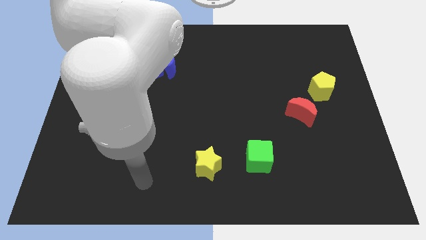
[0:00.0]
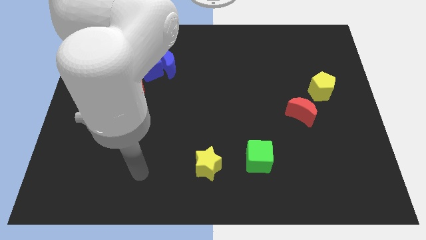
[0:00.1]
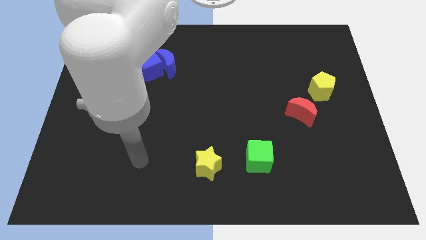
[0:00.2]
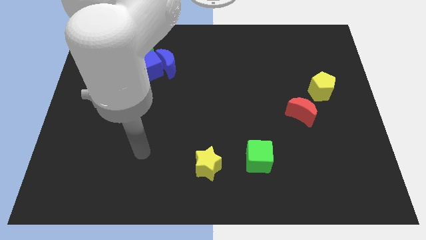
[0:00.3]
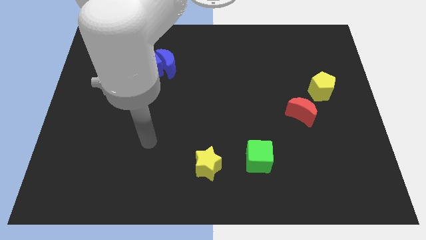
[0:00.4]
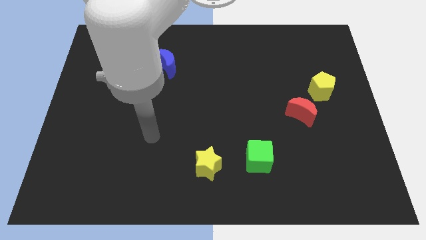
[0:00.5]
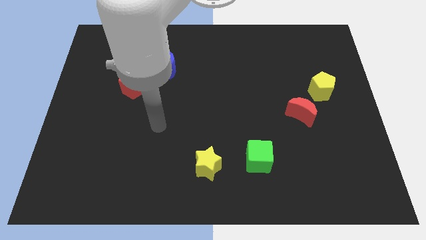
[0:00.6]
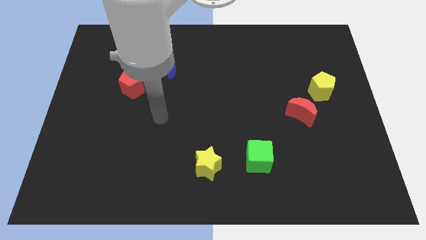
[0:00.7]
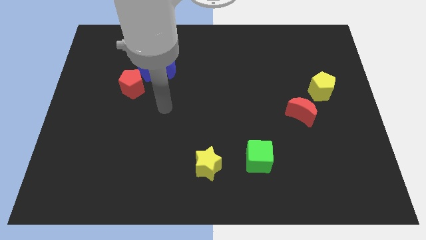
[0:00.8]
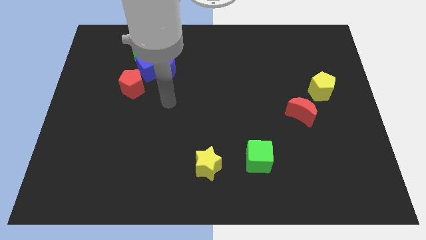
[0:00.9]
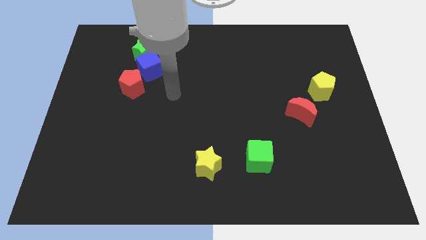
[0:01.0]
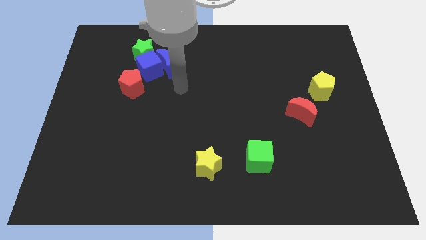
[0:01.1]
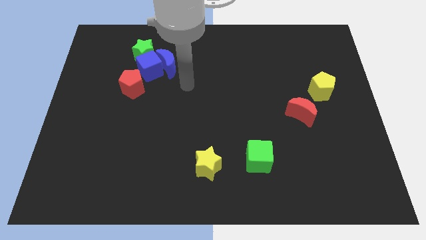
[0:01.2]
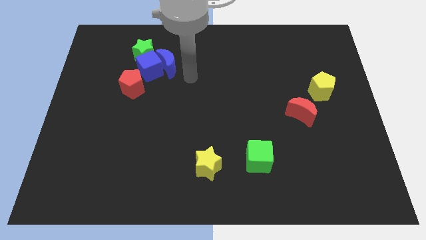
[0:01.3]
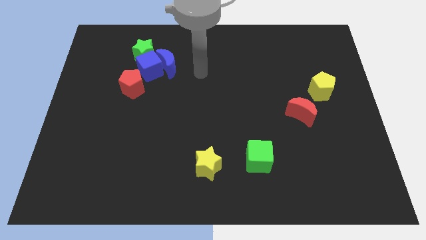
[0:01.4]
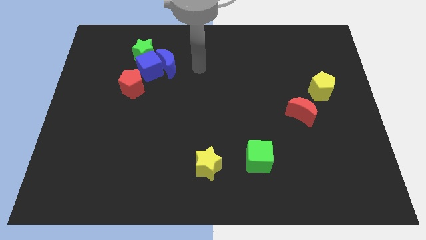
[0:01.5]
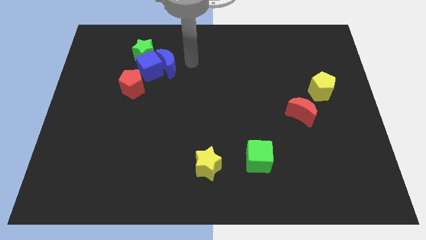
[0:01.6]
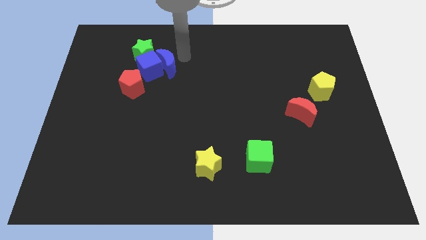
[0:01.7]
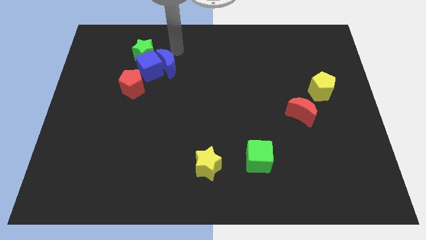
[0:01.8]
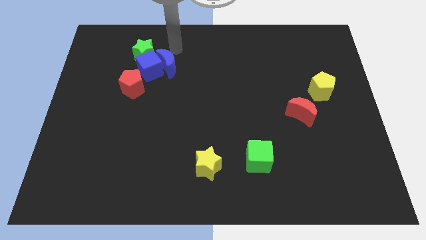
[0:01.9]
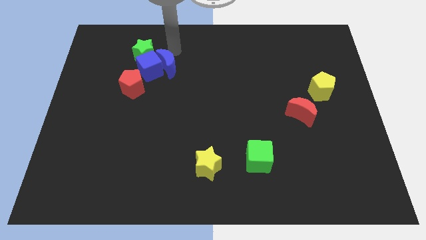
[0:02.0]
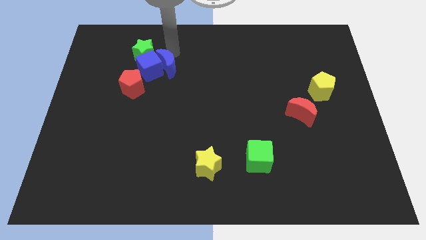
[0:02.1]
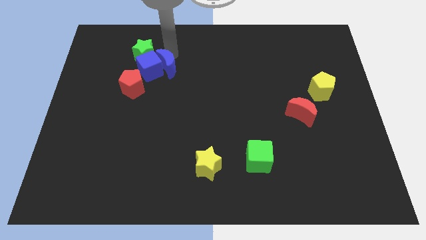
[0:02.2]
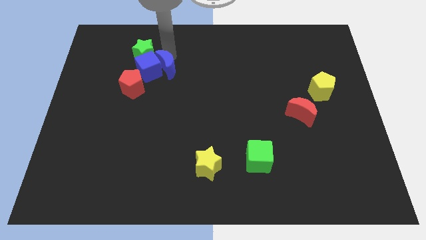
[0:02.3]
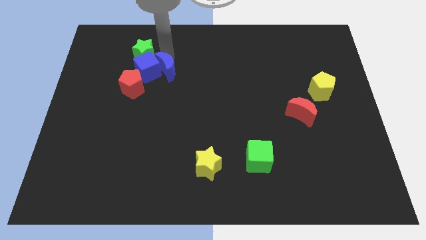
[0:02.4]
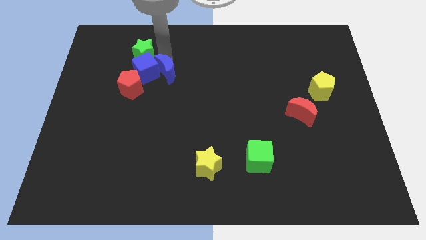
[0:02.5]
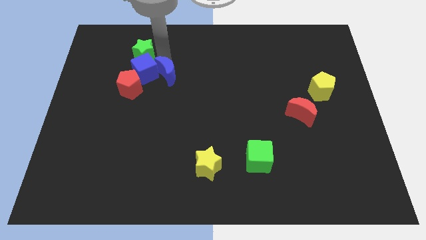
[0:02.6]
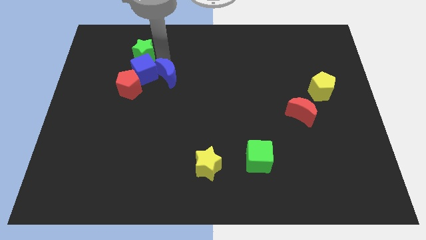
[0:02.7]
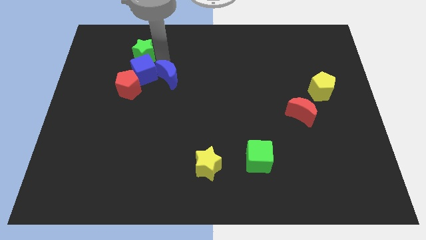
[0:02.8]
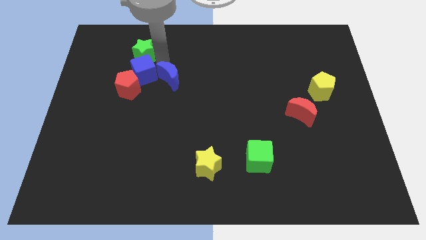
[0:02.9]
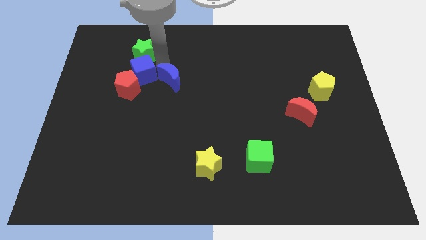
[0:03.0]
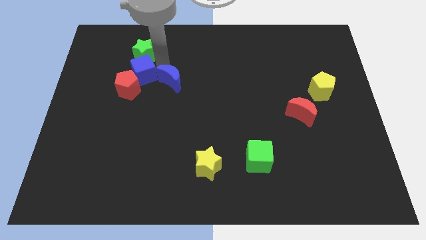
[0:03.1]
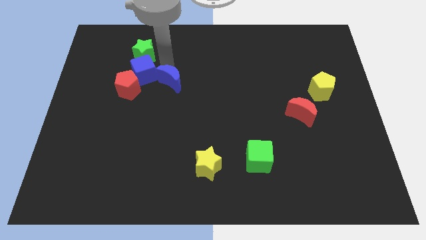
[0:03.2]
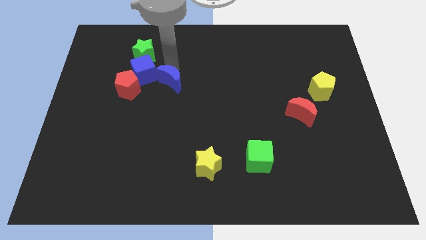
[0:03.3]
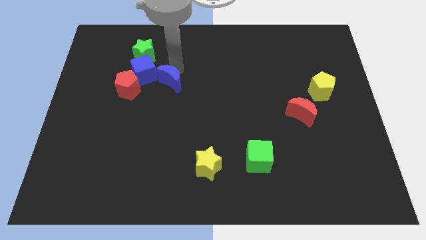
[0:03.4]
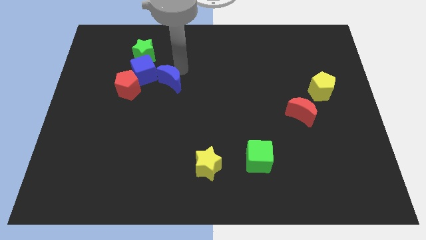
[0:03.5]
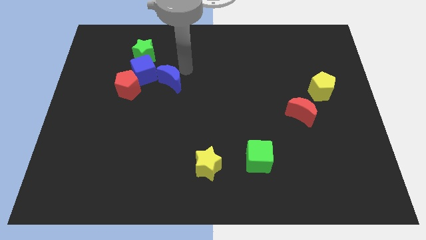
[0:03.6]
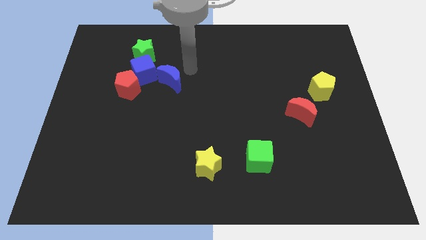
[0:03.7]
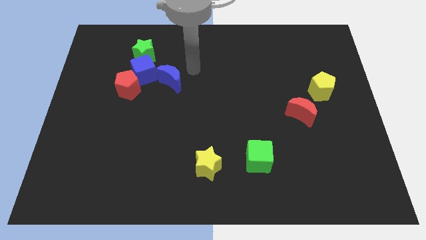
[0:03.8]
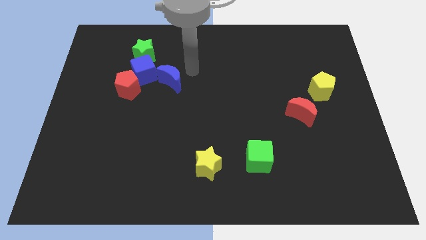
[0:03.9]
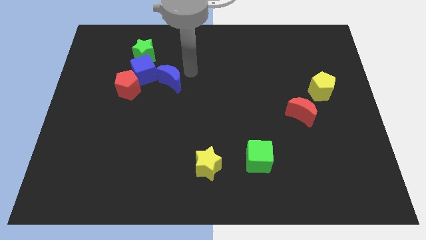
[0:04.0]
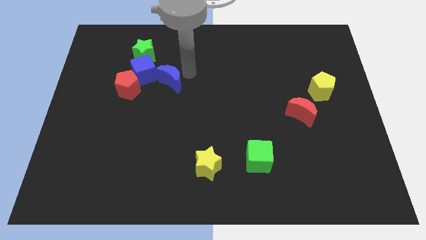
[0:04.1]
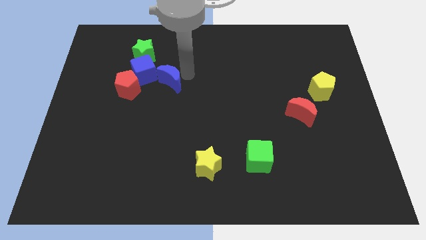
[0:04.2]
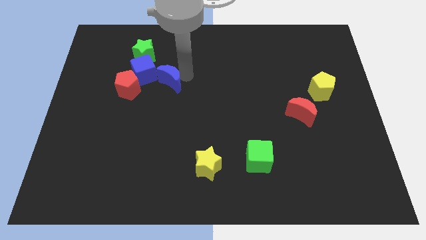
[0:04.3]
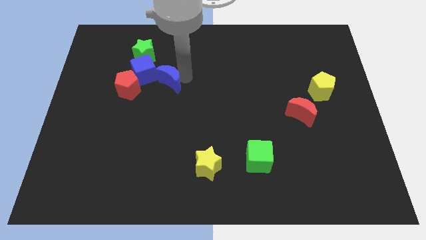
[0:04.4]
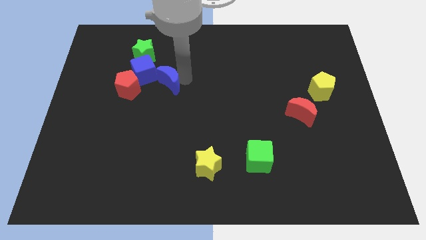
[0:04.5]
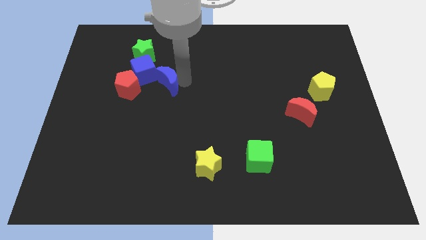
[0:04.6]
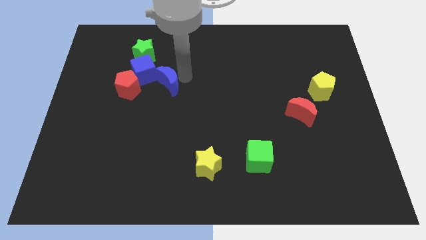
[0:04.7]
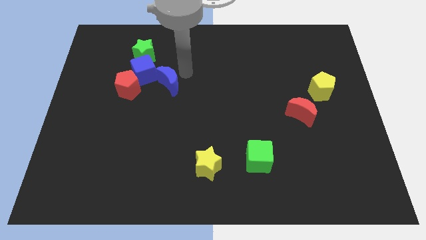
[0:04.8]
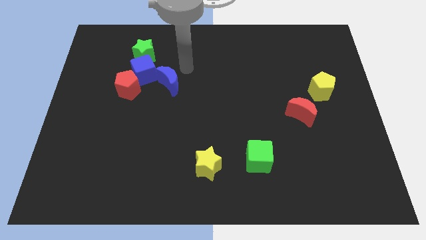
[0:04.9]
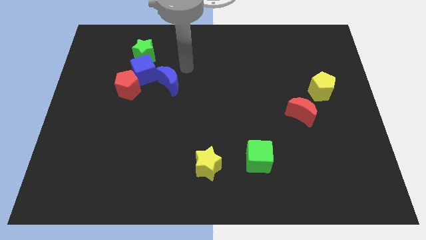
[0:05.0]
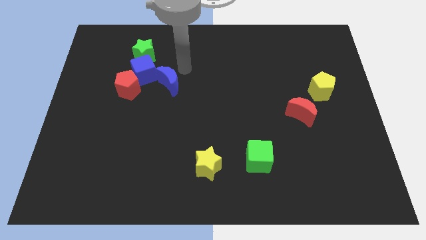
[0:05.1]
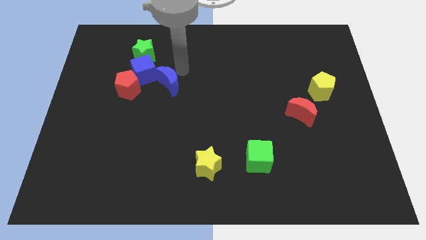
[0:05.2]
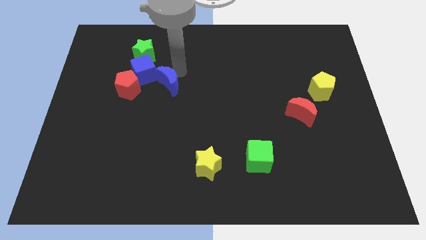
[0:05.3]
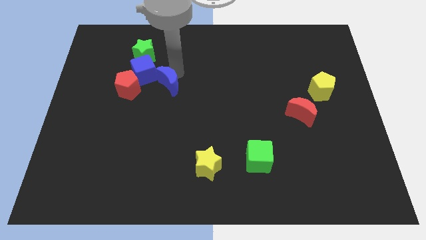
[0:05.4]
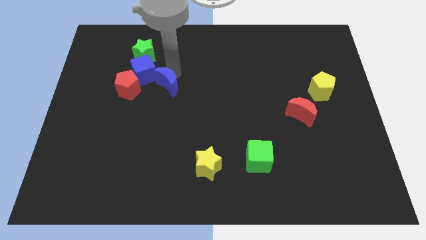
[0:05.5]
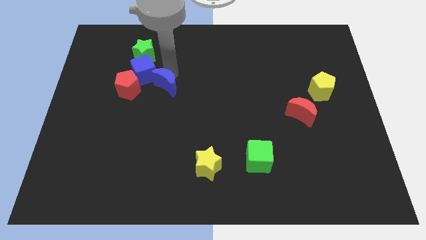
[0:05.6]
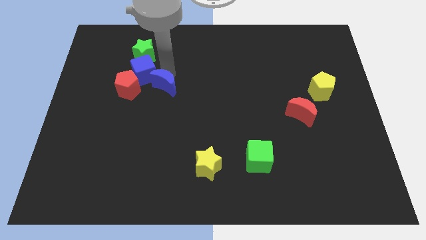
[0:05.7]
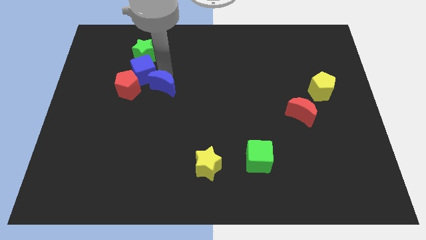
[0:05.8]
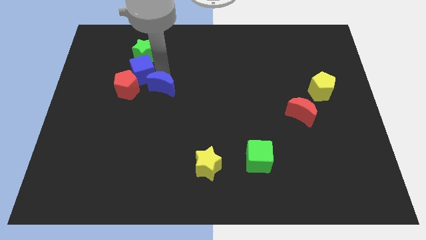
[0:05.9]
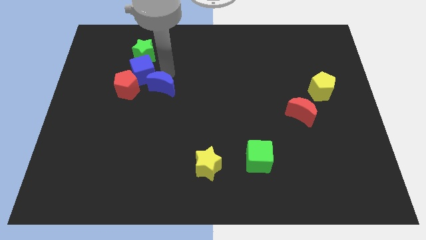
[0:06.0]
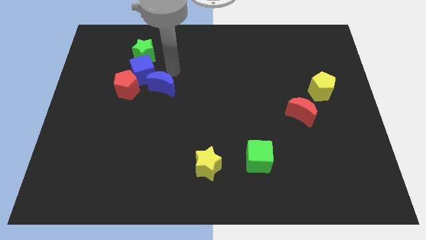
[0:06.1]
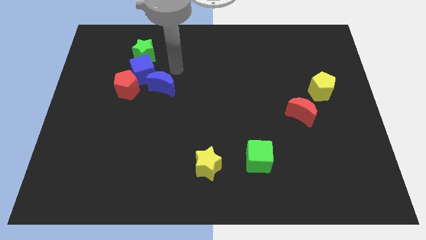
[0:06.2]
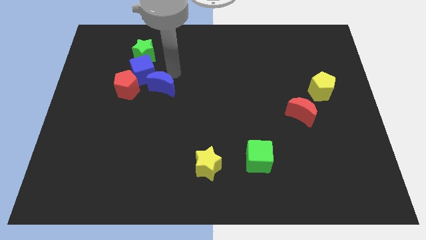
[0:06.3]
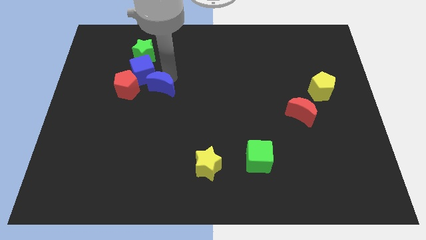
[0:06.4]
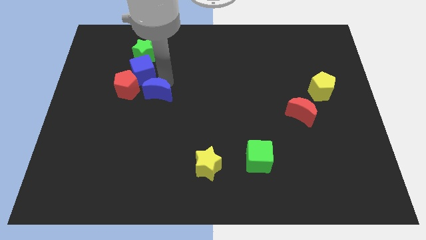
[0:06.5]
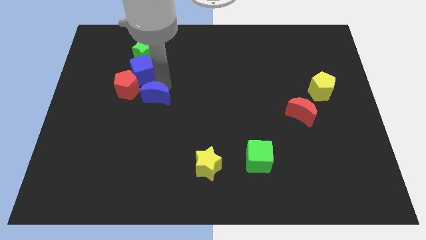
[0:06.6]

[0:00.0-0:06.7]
move the blue moon down and left somewhat

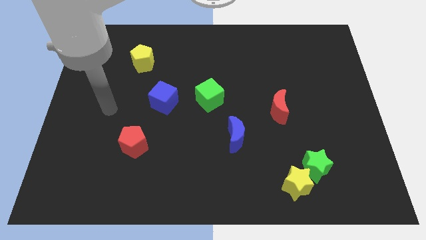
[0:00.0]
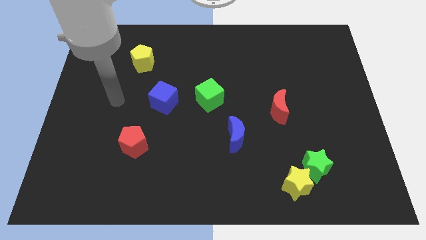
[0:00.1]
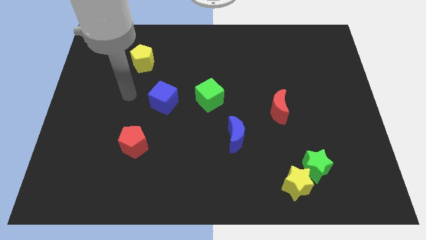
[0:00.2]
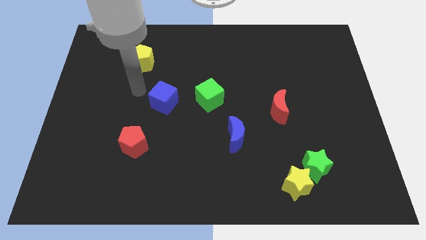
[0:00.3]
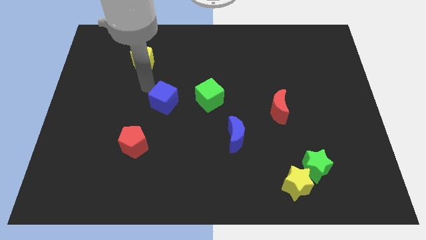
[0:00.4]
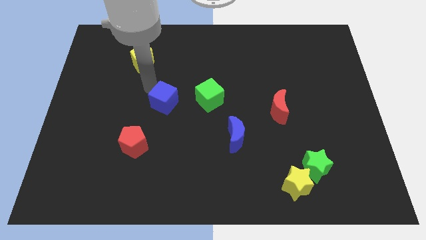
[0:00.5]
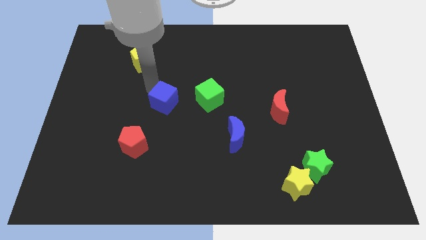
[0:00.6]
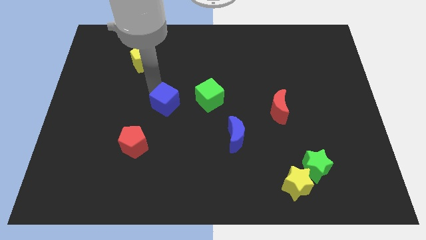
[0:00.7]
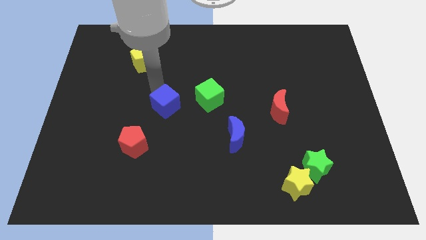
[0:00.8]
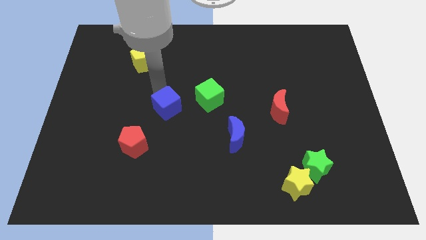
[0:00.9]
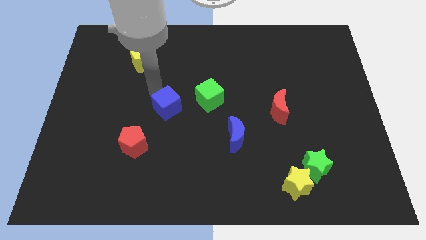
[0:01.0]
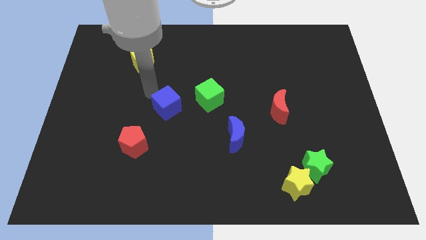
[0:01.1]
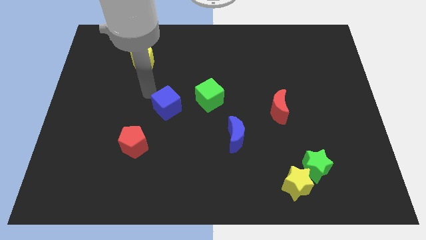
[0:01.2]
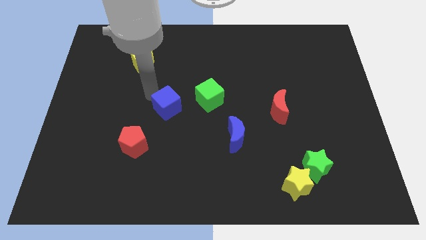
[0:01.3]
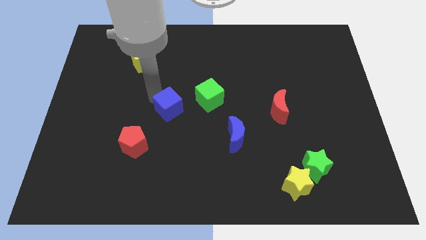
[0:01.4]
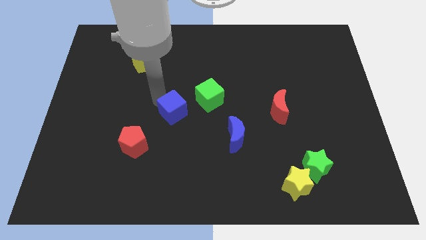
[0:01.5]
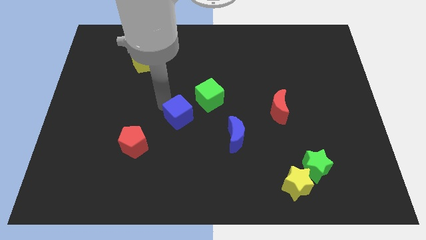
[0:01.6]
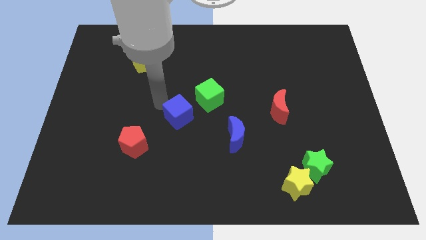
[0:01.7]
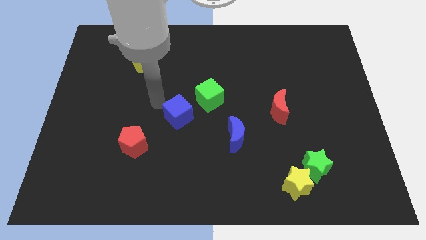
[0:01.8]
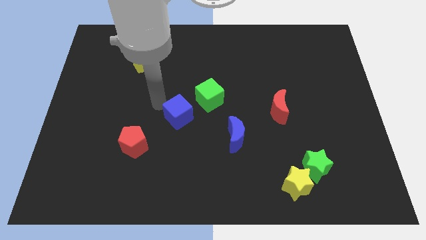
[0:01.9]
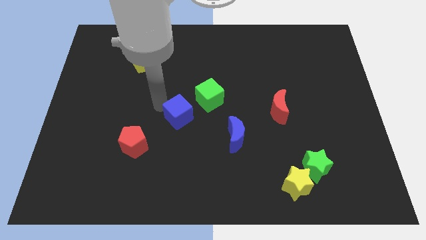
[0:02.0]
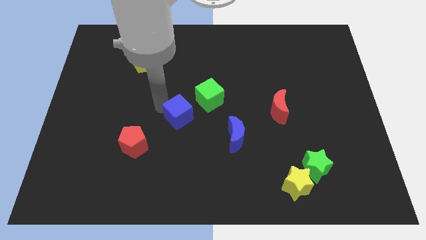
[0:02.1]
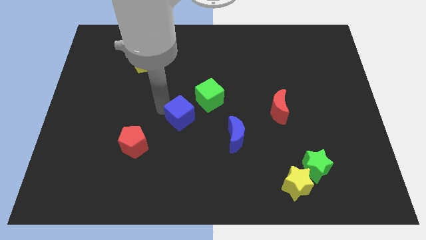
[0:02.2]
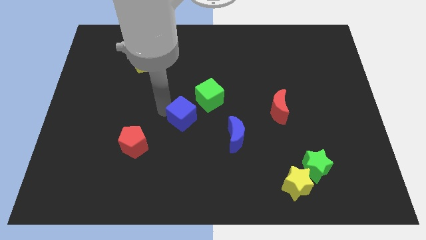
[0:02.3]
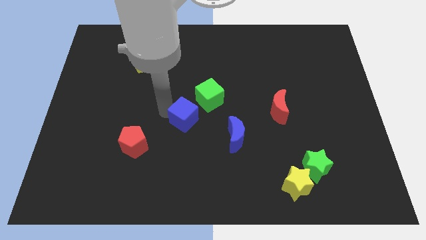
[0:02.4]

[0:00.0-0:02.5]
slightly push the blue cube down and right
